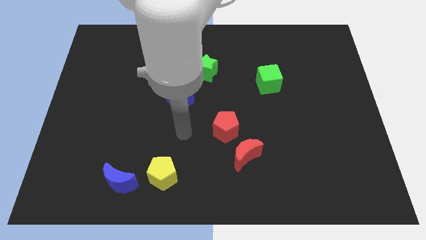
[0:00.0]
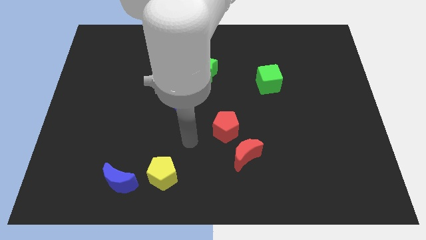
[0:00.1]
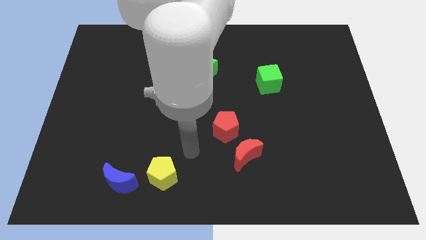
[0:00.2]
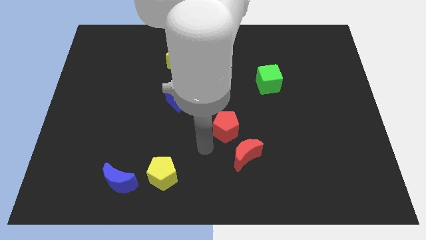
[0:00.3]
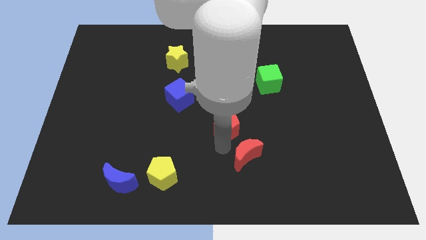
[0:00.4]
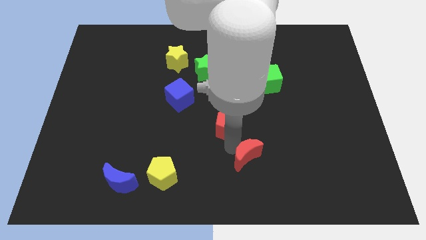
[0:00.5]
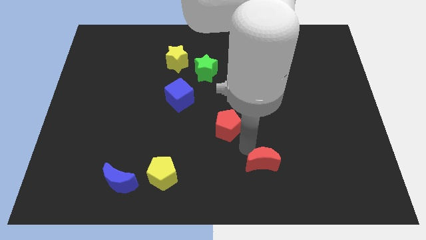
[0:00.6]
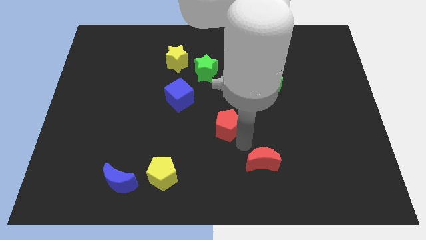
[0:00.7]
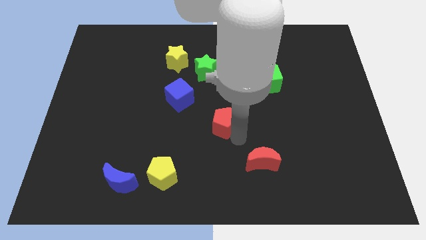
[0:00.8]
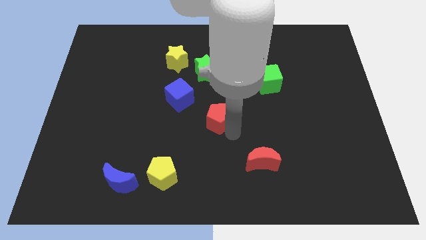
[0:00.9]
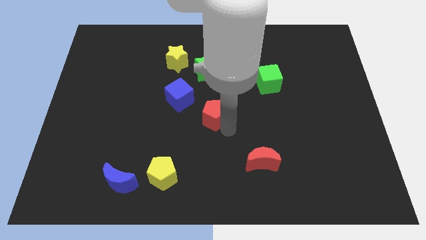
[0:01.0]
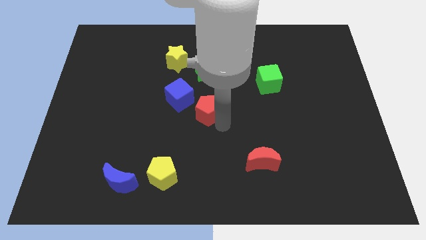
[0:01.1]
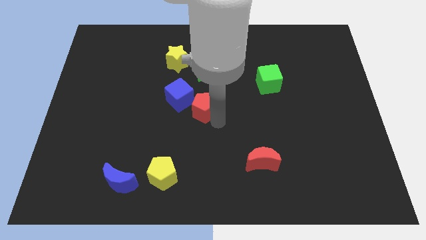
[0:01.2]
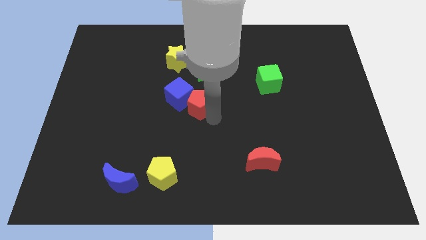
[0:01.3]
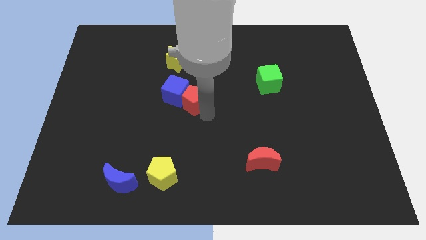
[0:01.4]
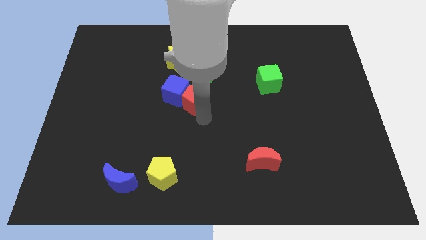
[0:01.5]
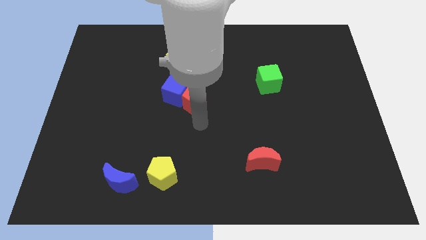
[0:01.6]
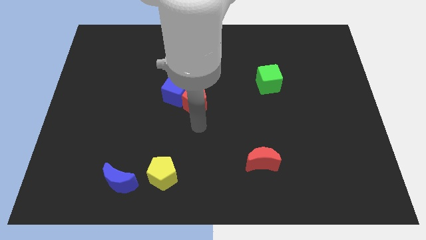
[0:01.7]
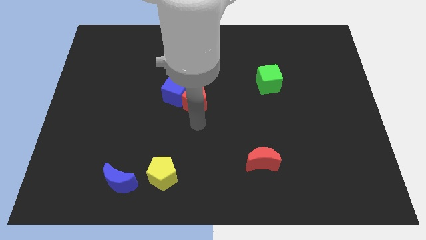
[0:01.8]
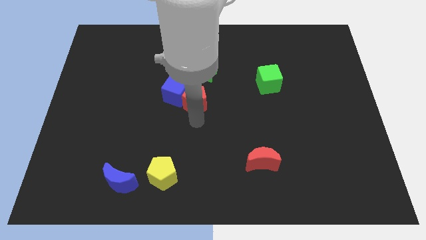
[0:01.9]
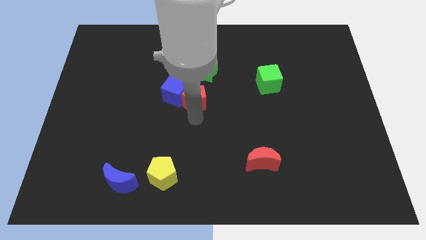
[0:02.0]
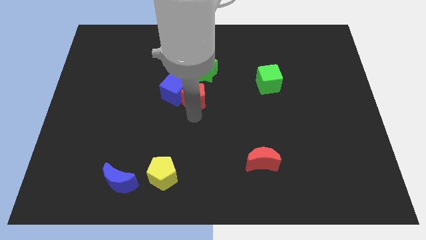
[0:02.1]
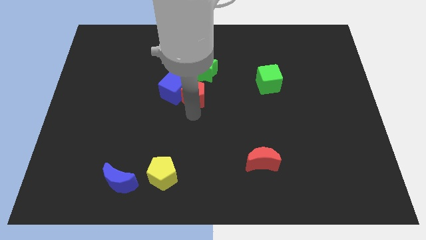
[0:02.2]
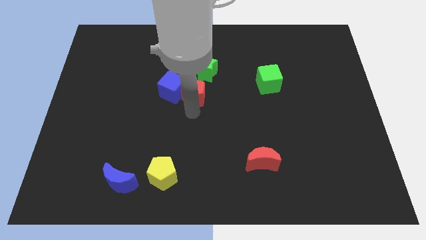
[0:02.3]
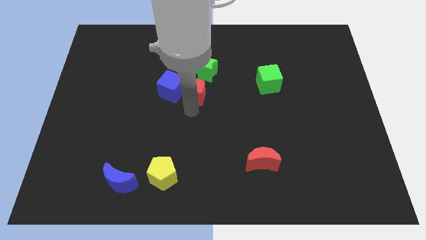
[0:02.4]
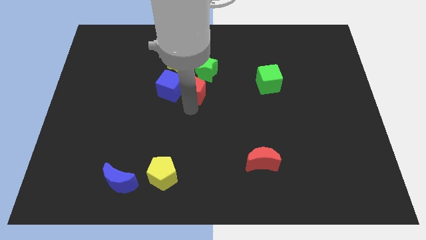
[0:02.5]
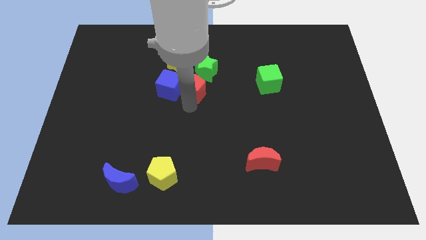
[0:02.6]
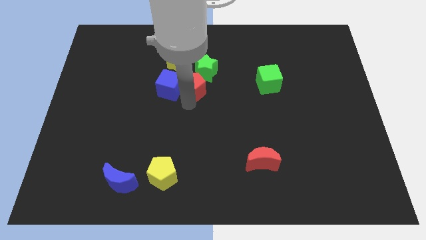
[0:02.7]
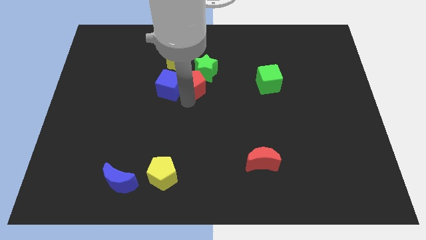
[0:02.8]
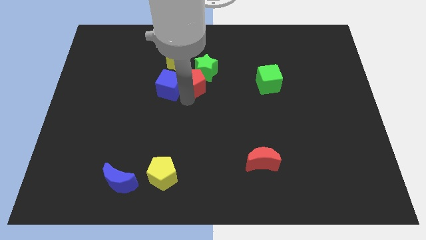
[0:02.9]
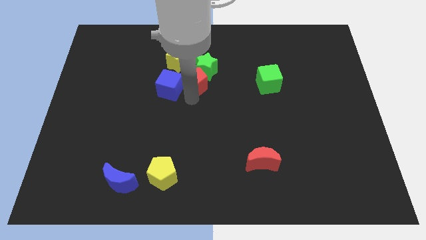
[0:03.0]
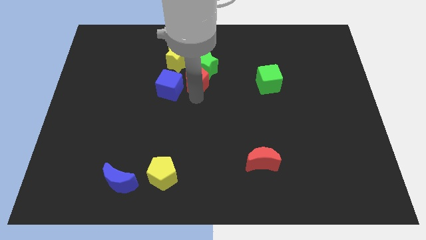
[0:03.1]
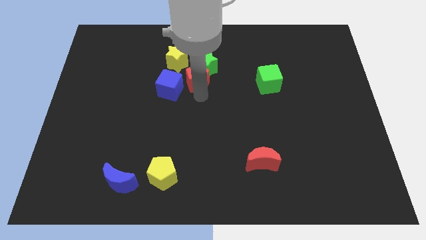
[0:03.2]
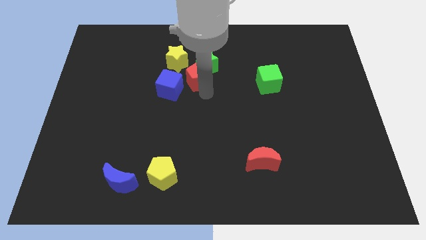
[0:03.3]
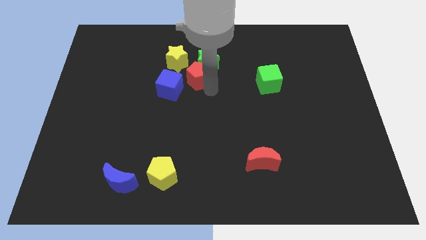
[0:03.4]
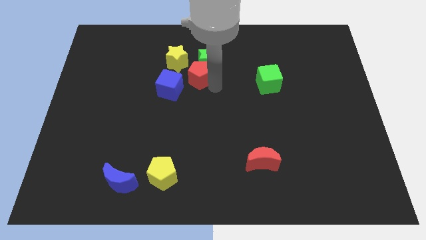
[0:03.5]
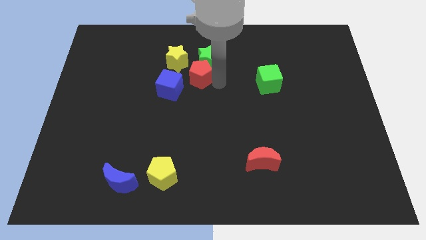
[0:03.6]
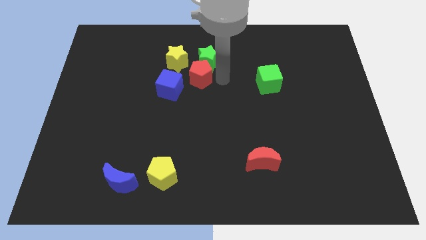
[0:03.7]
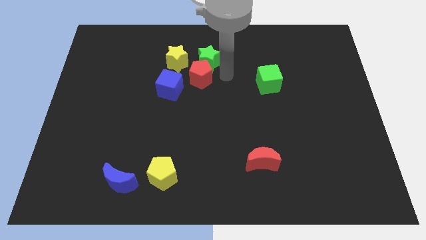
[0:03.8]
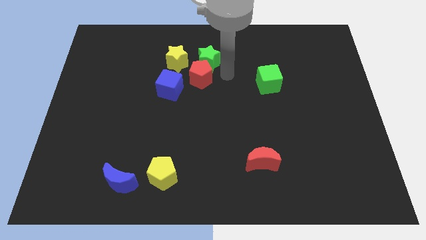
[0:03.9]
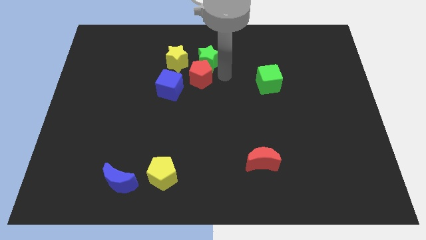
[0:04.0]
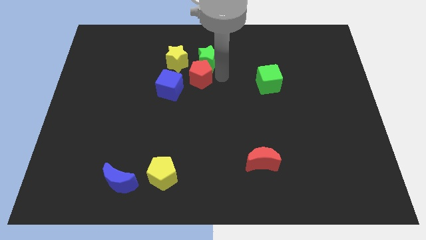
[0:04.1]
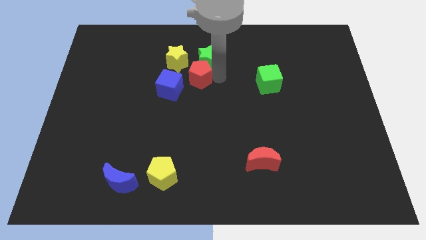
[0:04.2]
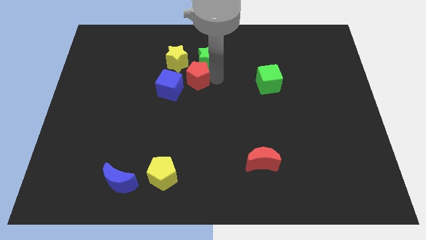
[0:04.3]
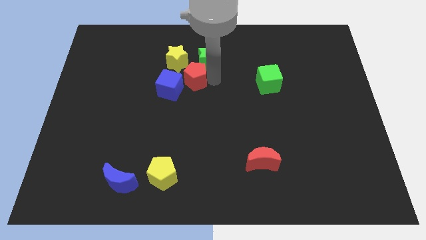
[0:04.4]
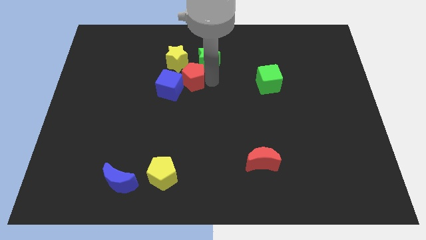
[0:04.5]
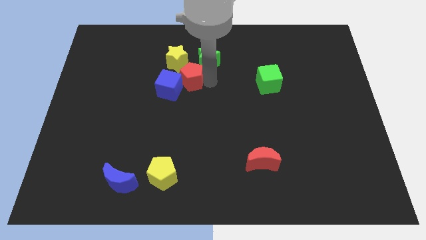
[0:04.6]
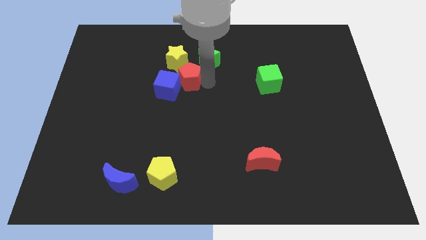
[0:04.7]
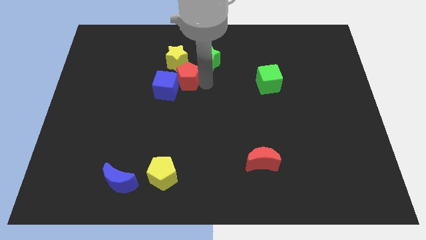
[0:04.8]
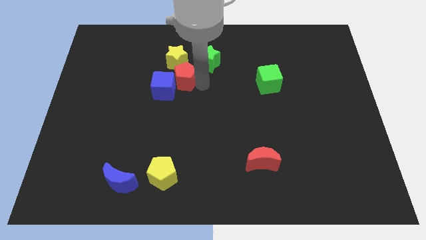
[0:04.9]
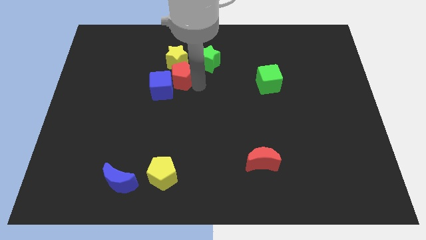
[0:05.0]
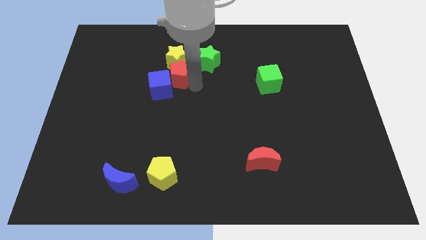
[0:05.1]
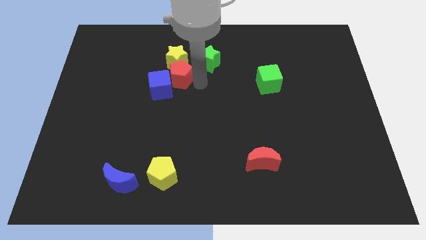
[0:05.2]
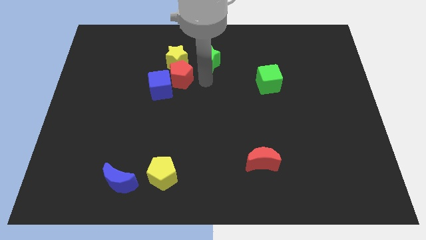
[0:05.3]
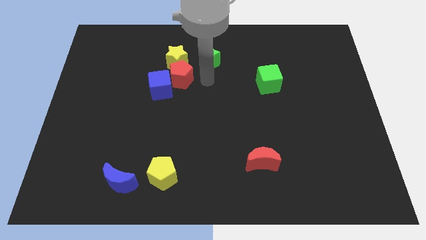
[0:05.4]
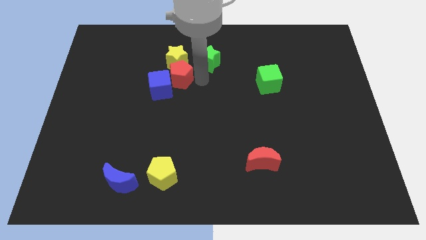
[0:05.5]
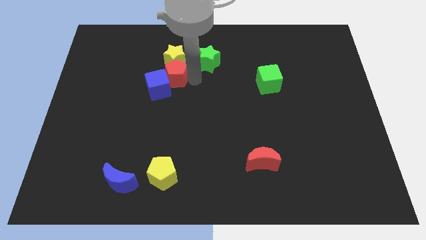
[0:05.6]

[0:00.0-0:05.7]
slide the red pentagon to the bottom left of the yellow star

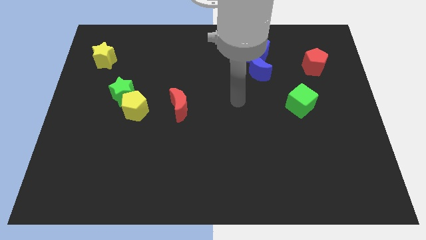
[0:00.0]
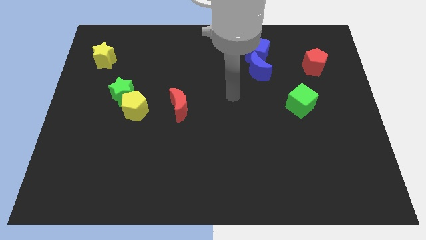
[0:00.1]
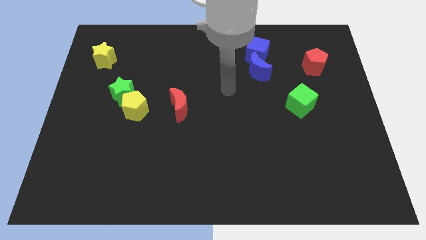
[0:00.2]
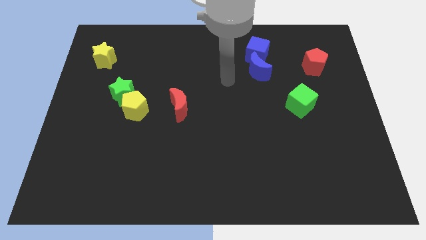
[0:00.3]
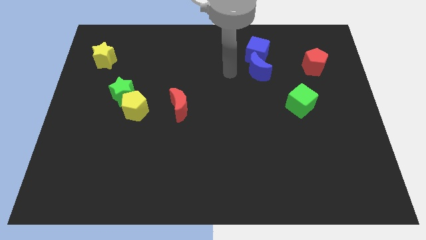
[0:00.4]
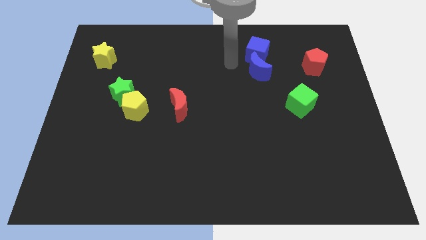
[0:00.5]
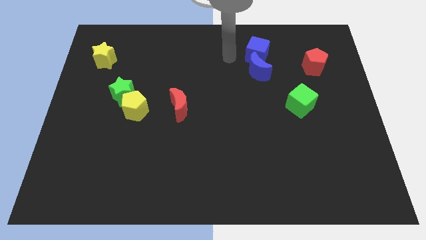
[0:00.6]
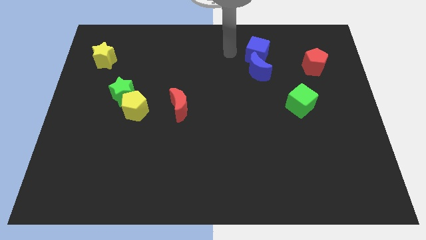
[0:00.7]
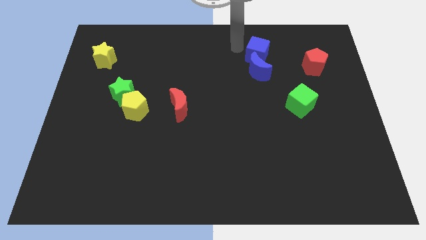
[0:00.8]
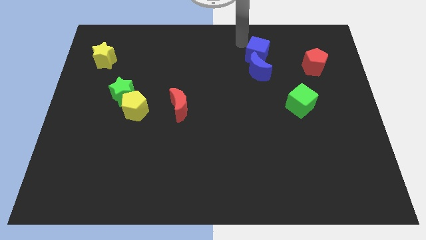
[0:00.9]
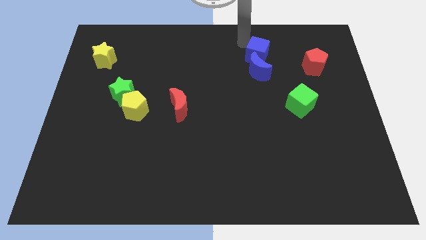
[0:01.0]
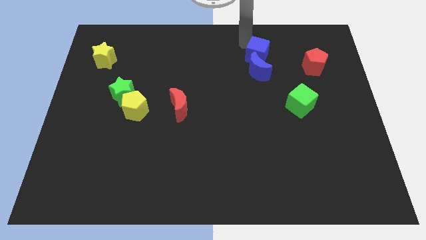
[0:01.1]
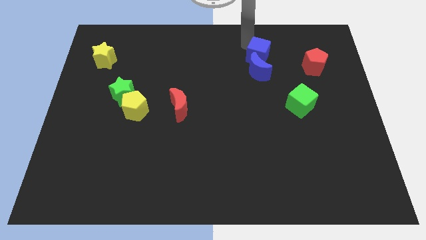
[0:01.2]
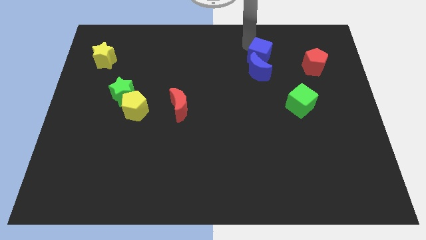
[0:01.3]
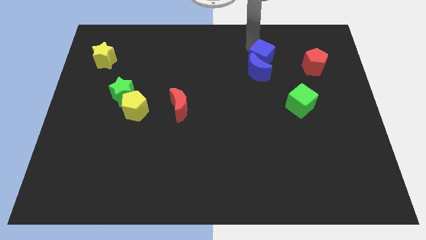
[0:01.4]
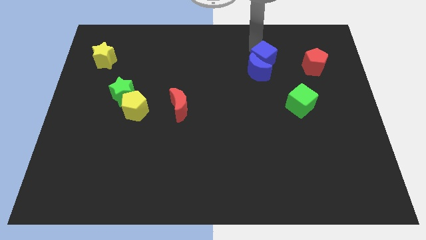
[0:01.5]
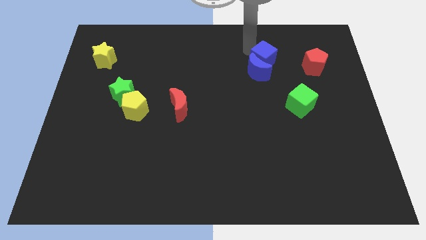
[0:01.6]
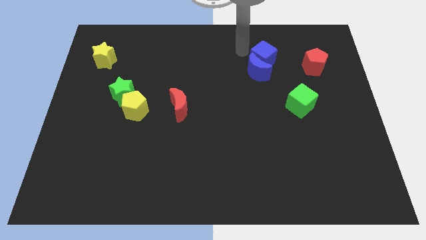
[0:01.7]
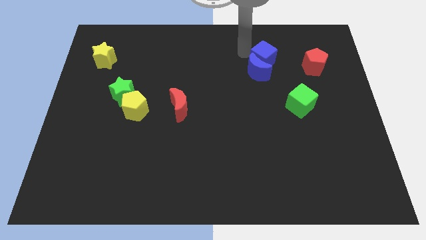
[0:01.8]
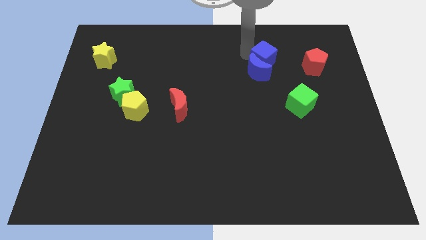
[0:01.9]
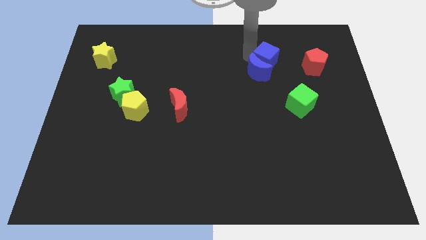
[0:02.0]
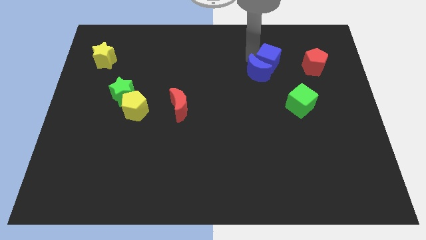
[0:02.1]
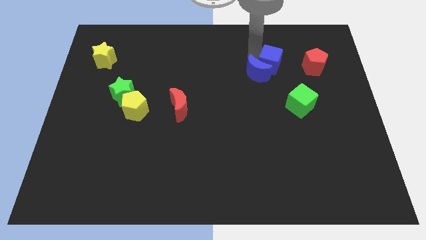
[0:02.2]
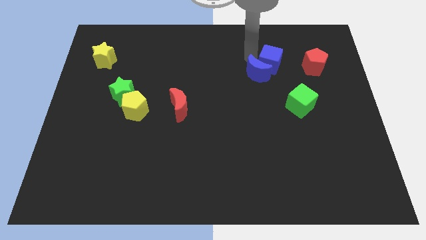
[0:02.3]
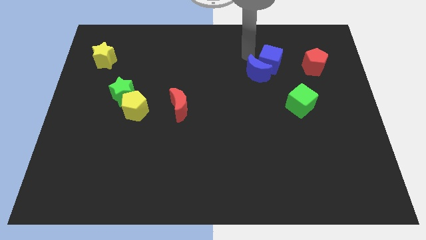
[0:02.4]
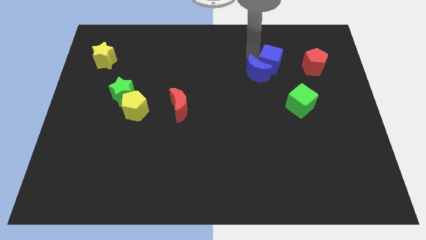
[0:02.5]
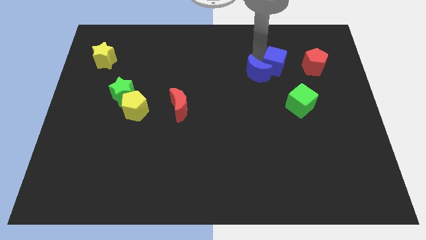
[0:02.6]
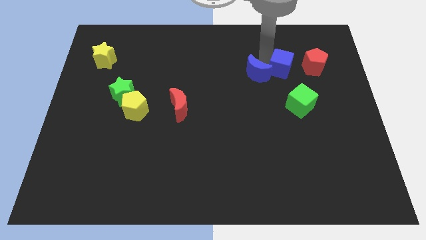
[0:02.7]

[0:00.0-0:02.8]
push the blue cube to the top of the green cube
